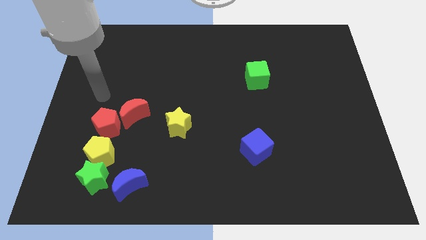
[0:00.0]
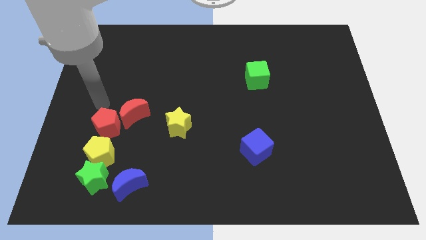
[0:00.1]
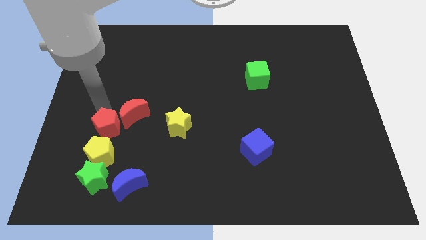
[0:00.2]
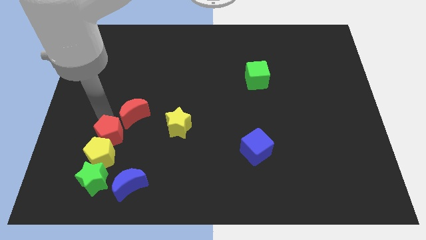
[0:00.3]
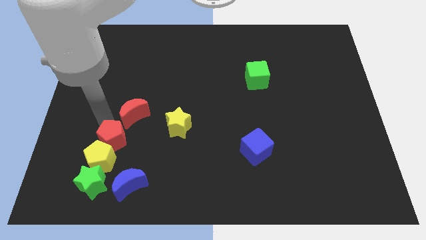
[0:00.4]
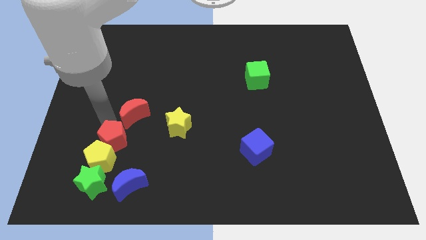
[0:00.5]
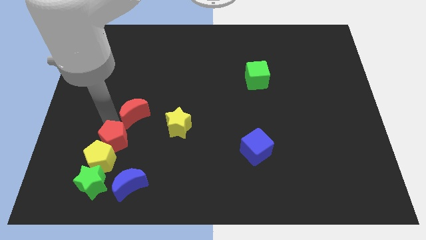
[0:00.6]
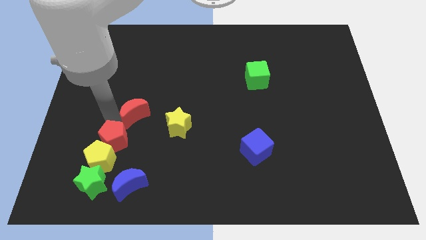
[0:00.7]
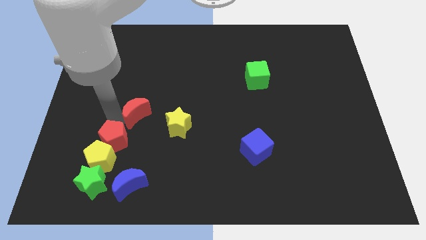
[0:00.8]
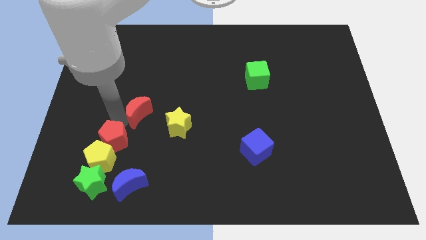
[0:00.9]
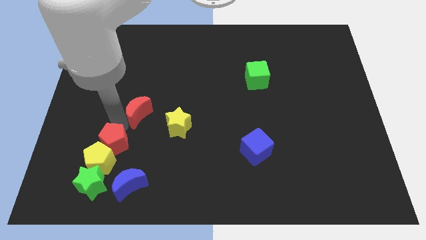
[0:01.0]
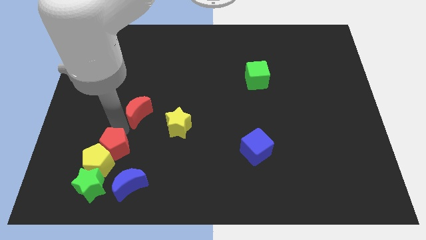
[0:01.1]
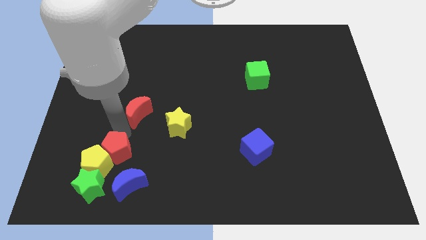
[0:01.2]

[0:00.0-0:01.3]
separate the red moon from the red pentagon

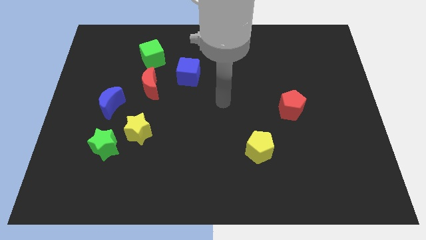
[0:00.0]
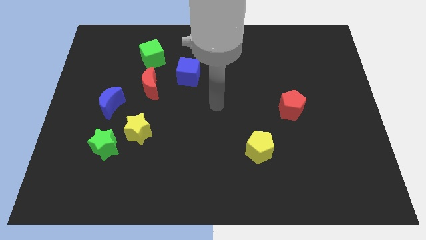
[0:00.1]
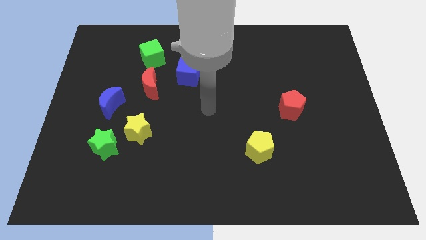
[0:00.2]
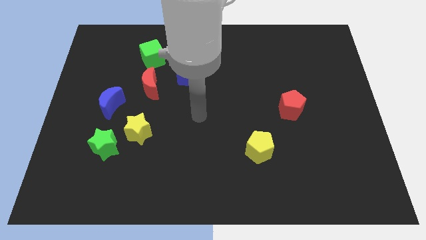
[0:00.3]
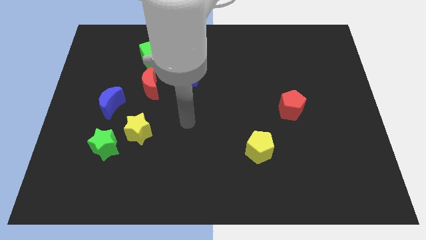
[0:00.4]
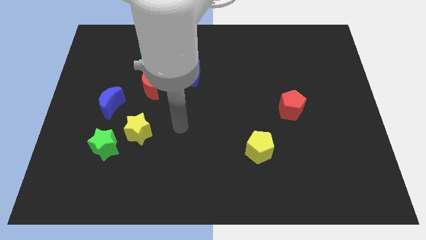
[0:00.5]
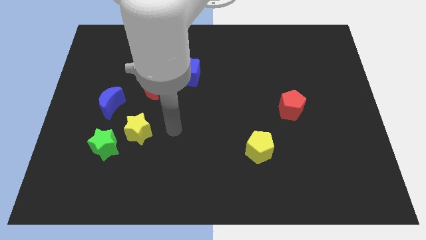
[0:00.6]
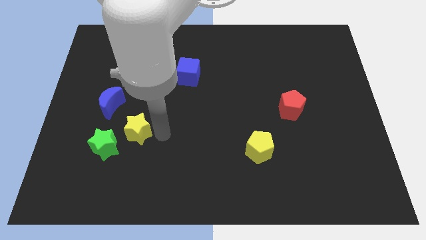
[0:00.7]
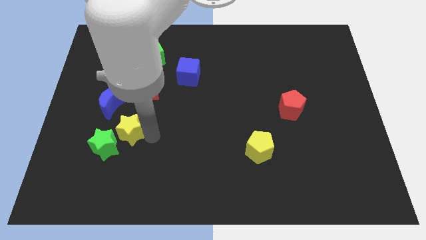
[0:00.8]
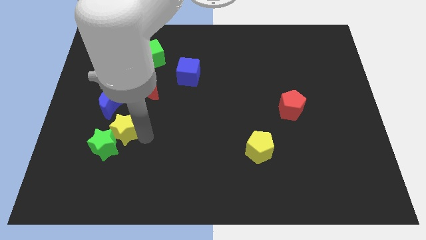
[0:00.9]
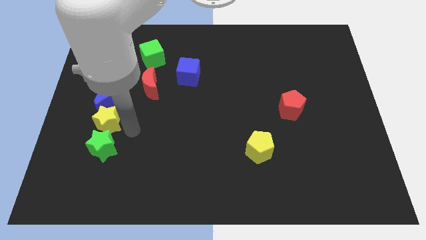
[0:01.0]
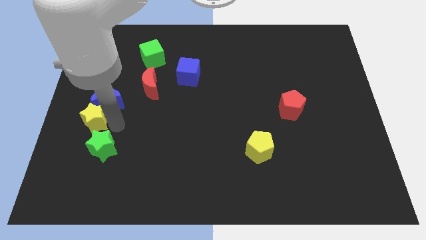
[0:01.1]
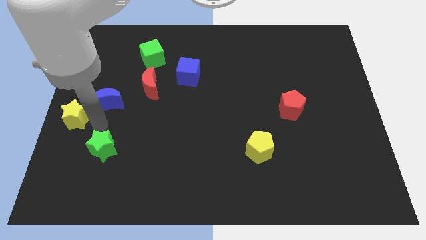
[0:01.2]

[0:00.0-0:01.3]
separate the green star from the yellow star

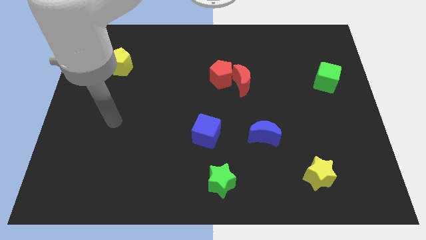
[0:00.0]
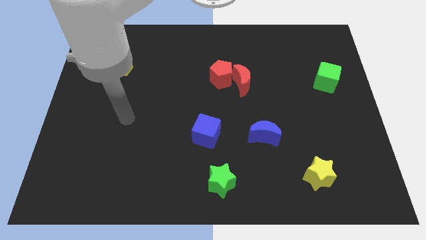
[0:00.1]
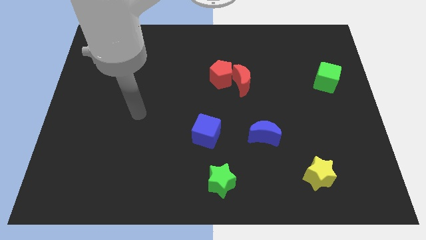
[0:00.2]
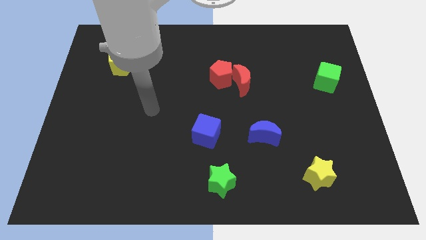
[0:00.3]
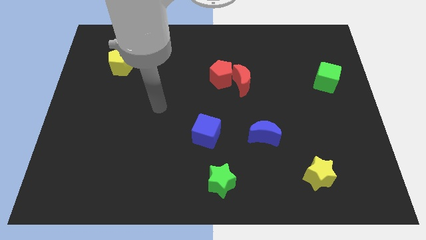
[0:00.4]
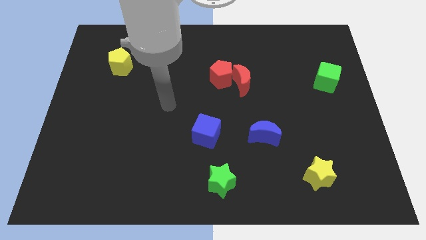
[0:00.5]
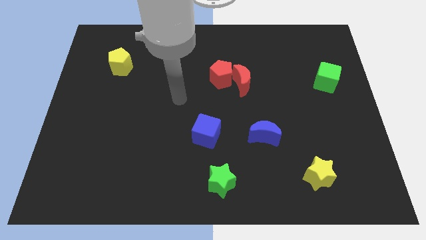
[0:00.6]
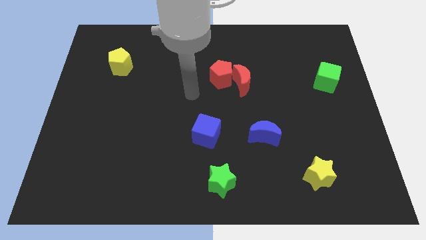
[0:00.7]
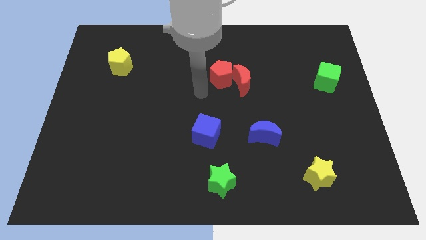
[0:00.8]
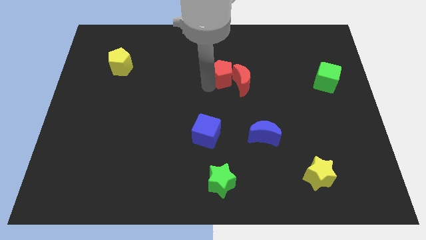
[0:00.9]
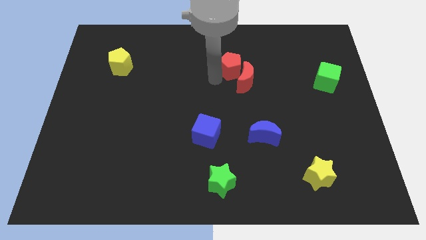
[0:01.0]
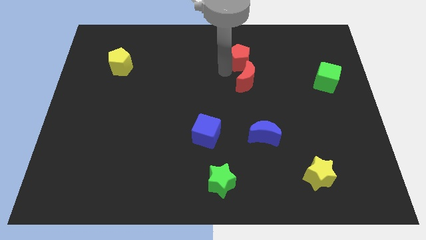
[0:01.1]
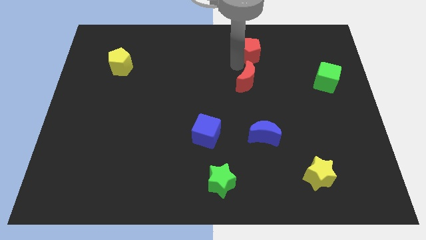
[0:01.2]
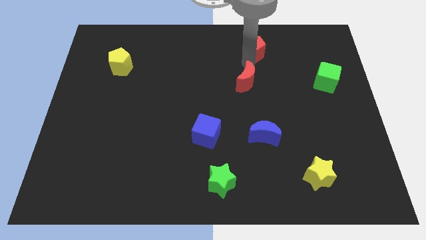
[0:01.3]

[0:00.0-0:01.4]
pull the red moon apart from the red pentagon

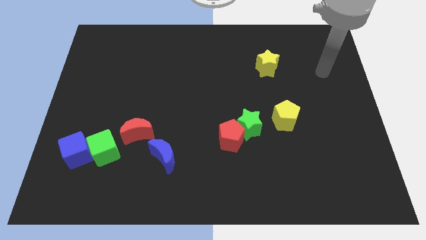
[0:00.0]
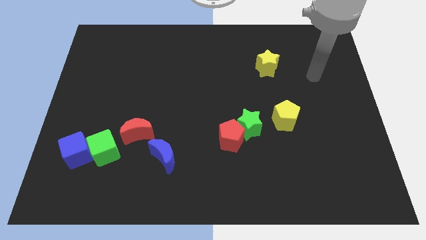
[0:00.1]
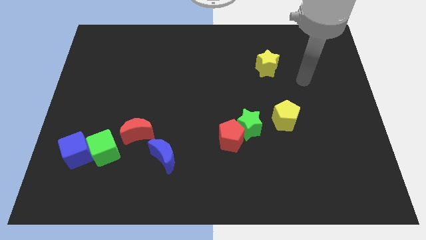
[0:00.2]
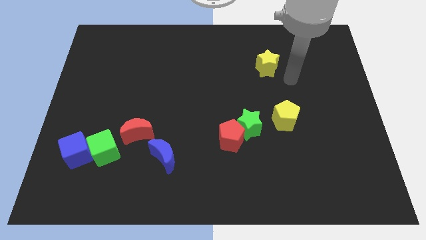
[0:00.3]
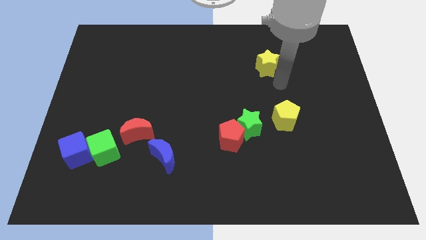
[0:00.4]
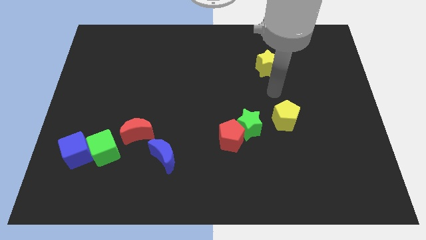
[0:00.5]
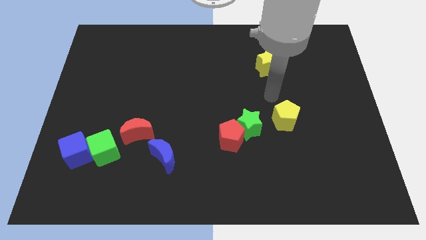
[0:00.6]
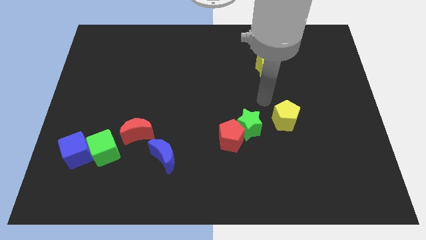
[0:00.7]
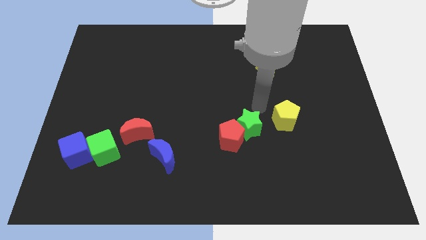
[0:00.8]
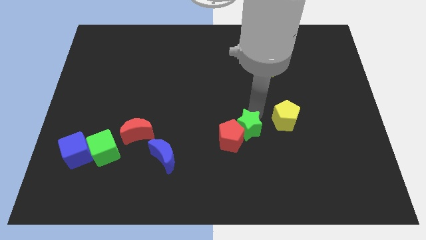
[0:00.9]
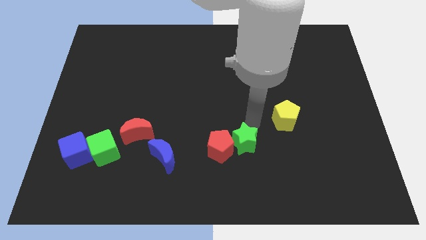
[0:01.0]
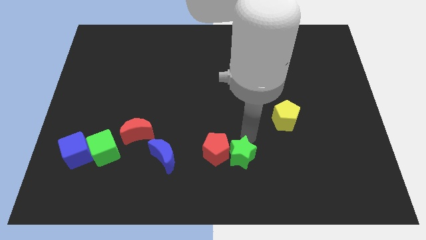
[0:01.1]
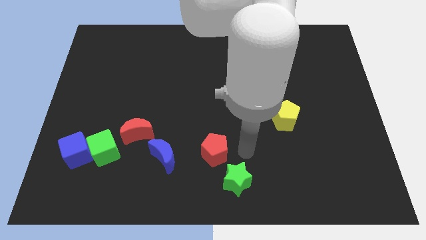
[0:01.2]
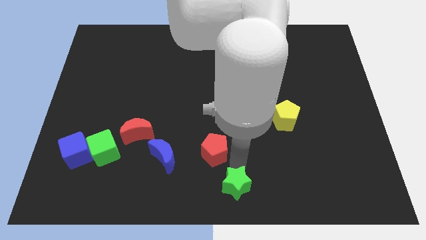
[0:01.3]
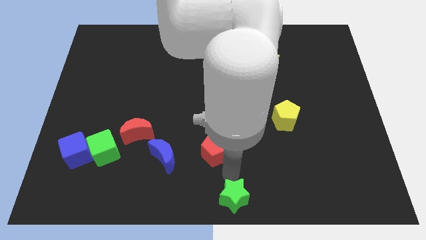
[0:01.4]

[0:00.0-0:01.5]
separate the red pentagon from the green star

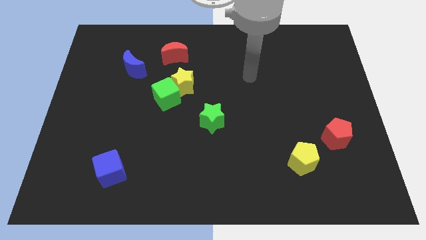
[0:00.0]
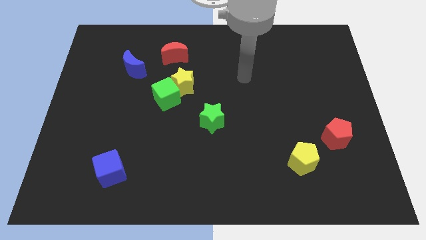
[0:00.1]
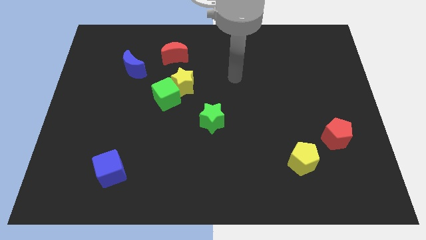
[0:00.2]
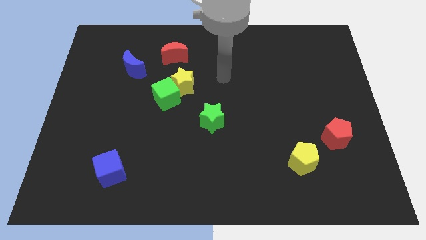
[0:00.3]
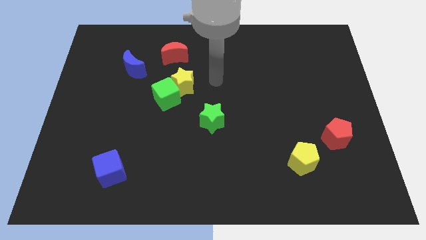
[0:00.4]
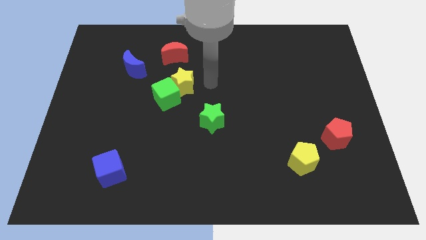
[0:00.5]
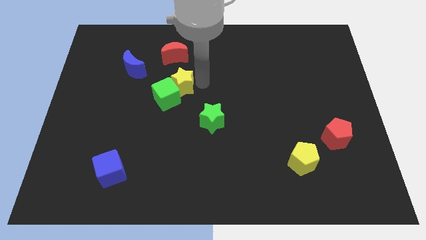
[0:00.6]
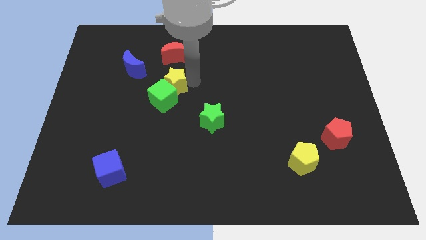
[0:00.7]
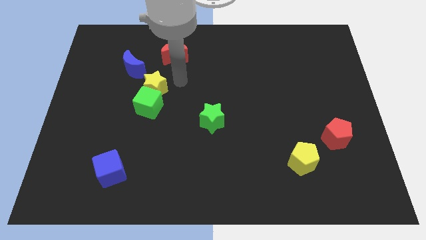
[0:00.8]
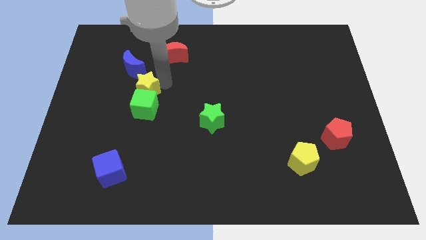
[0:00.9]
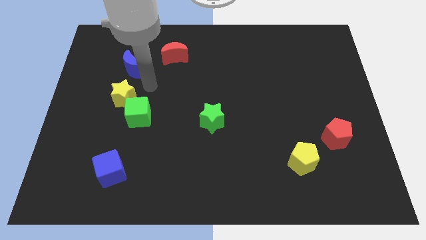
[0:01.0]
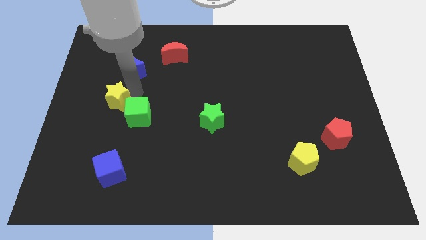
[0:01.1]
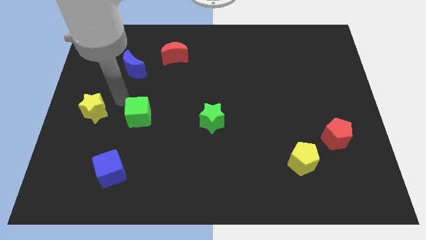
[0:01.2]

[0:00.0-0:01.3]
move the green cube away from the yellow star

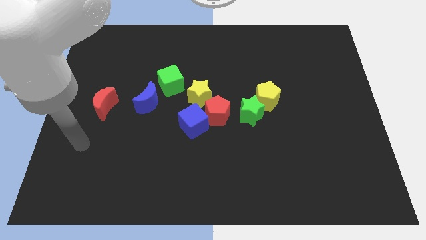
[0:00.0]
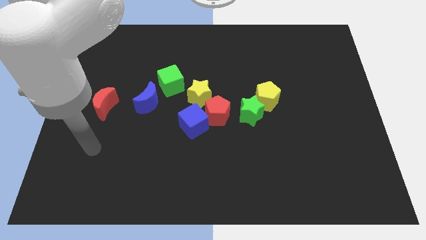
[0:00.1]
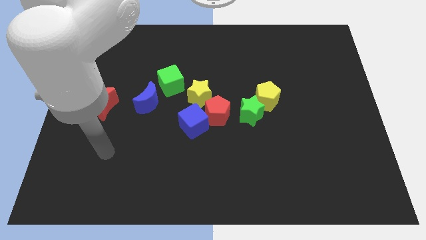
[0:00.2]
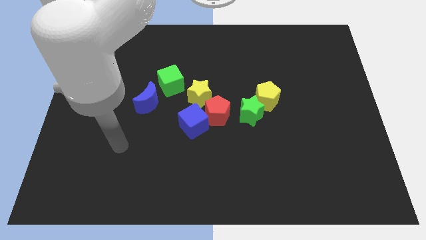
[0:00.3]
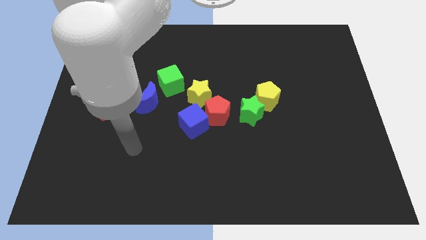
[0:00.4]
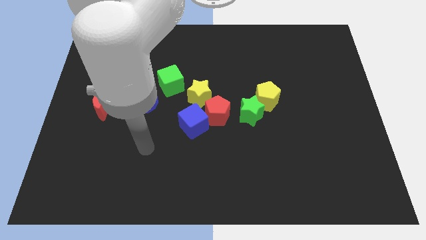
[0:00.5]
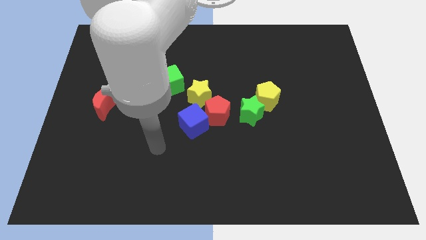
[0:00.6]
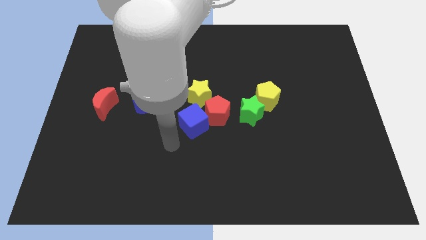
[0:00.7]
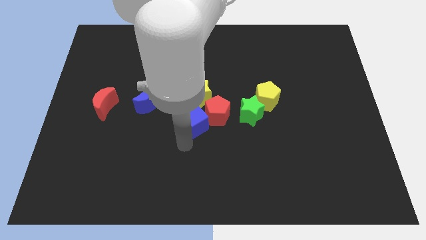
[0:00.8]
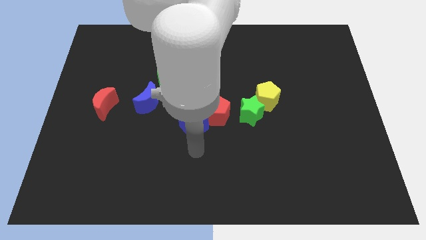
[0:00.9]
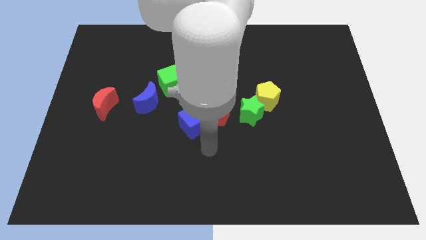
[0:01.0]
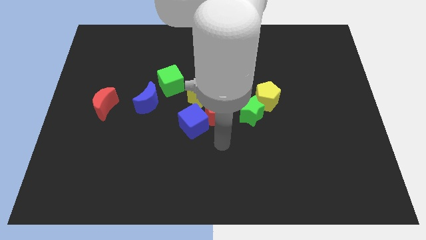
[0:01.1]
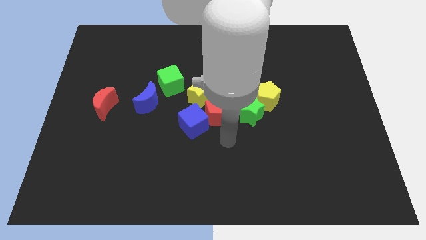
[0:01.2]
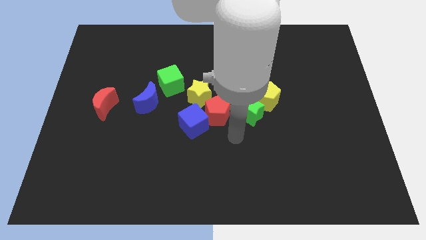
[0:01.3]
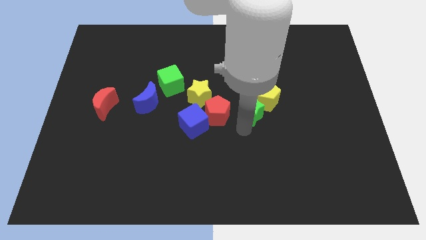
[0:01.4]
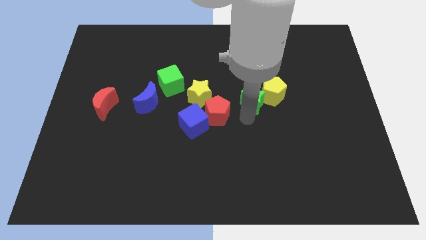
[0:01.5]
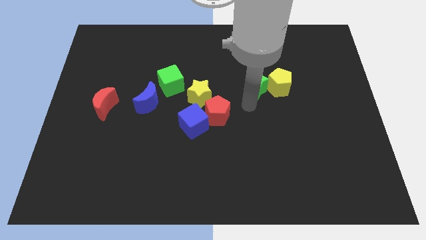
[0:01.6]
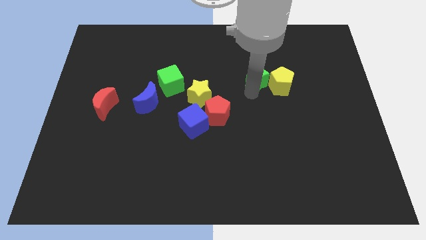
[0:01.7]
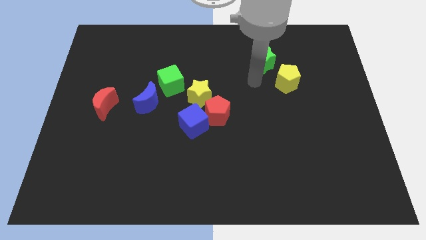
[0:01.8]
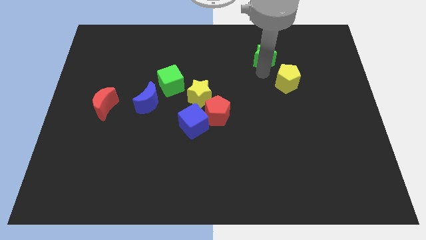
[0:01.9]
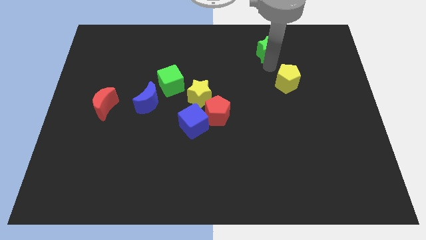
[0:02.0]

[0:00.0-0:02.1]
pull the yellow pentagon apart from the green star

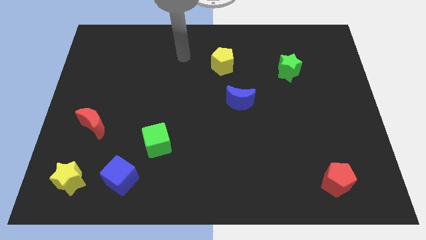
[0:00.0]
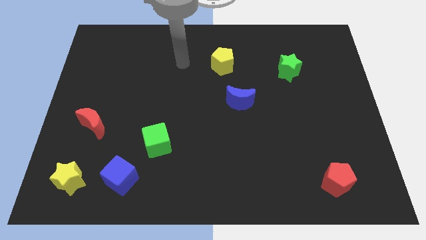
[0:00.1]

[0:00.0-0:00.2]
pull the blue cube apart from the yellow star

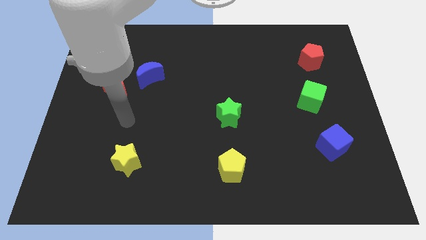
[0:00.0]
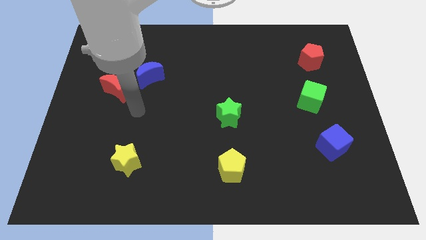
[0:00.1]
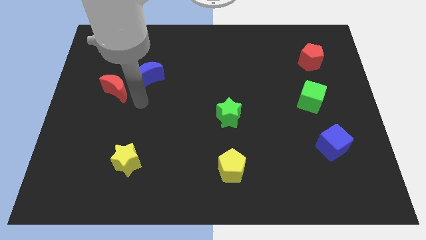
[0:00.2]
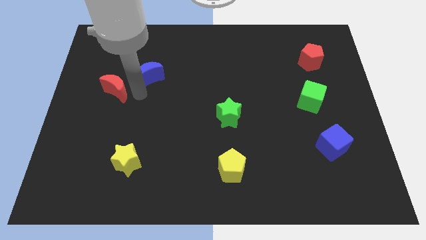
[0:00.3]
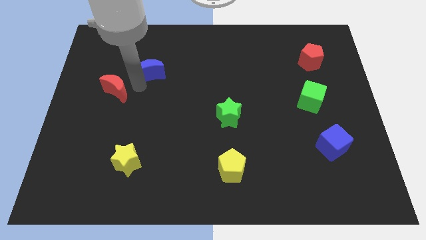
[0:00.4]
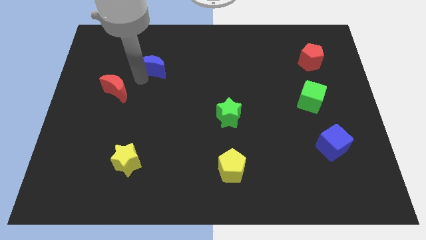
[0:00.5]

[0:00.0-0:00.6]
pull the red moon apart from the blue moon
